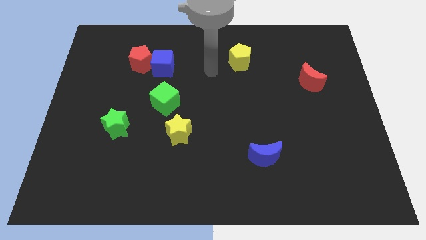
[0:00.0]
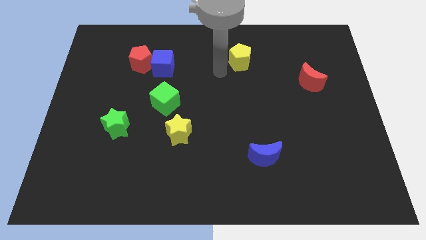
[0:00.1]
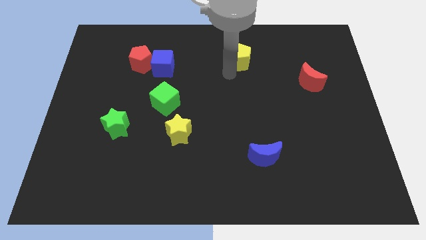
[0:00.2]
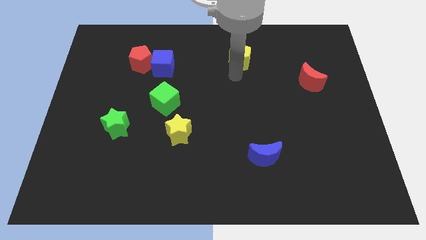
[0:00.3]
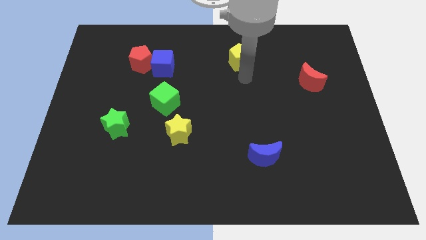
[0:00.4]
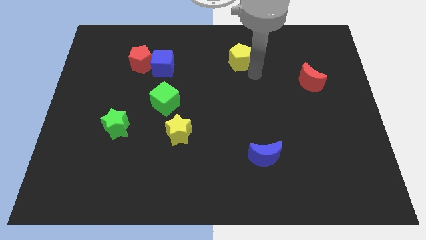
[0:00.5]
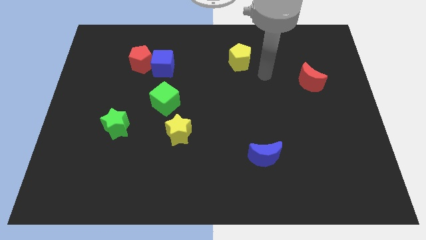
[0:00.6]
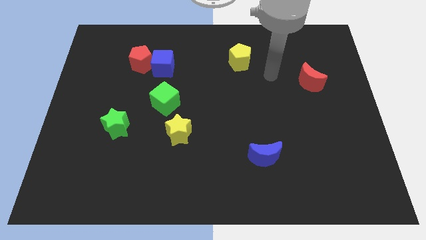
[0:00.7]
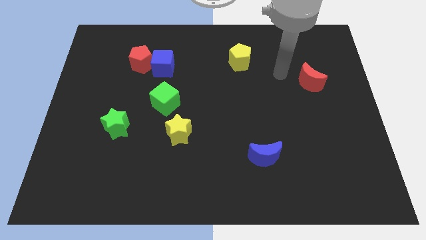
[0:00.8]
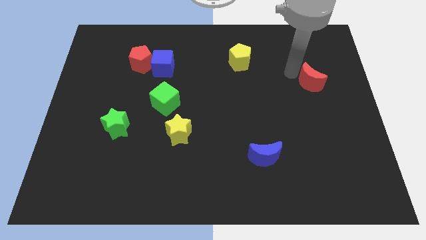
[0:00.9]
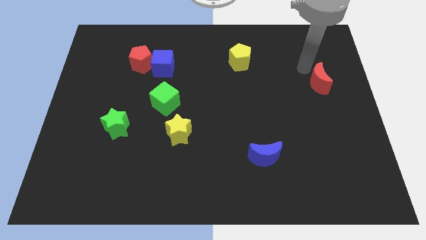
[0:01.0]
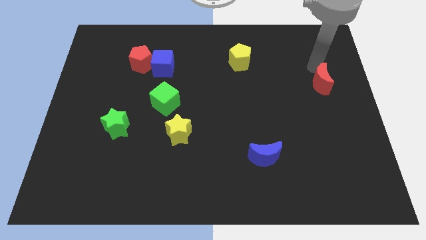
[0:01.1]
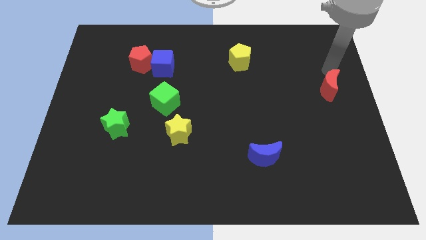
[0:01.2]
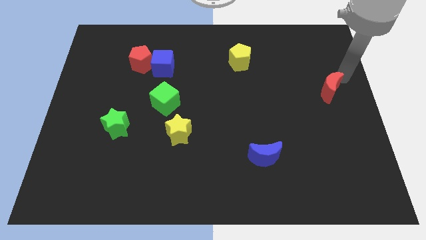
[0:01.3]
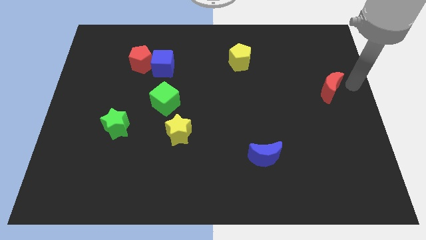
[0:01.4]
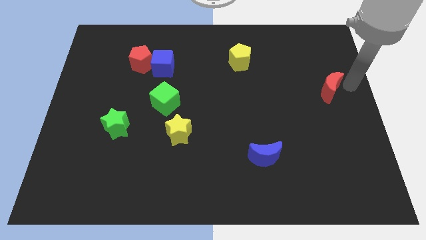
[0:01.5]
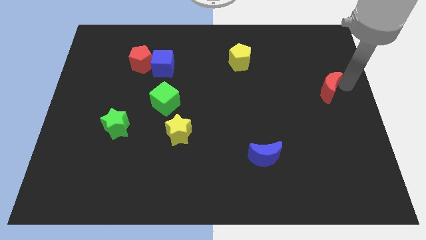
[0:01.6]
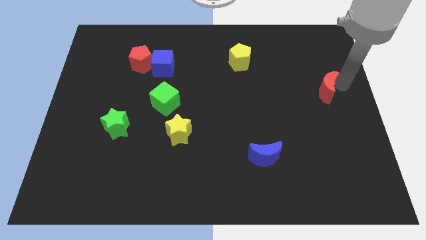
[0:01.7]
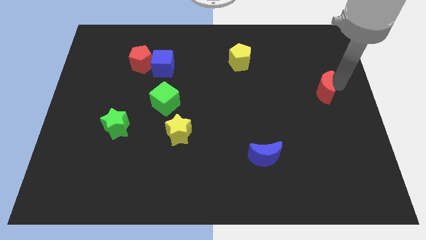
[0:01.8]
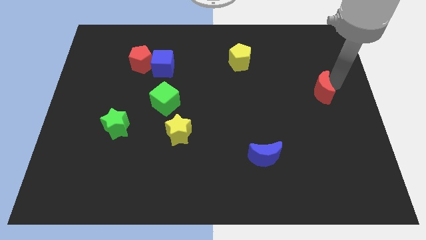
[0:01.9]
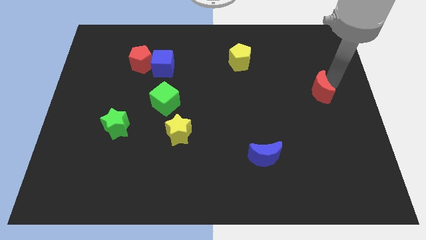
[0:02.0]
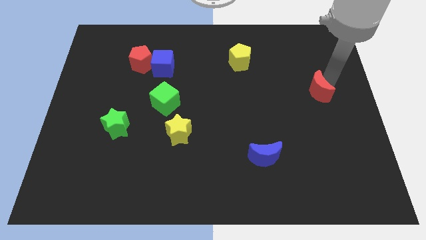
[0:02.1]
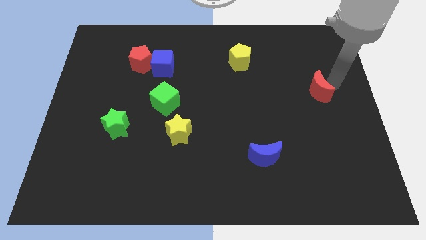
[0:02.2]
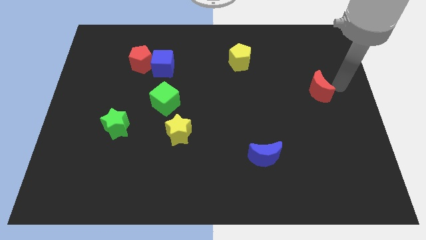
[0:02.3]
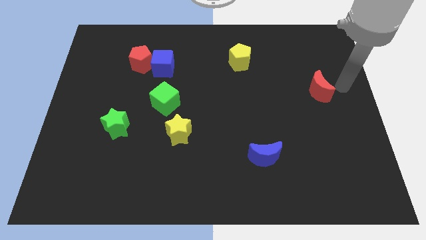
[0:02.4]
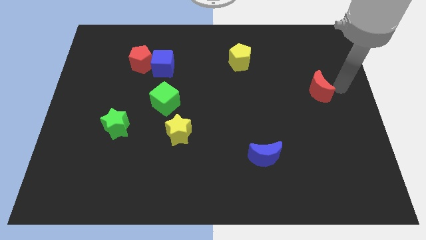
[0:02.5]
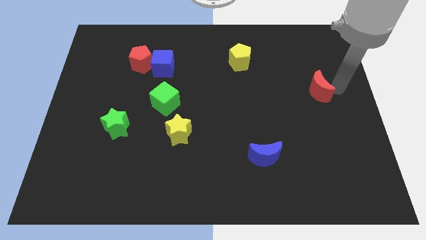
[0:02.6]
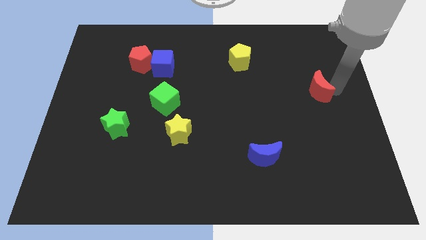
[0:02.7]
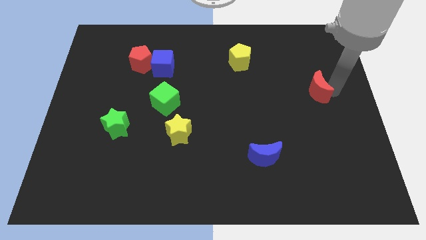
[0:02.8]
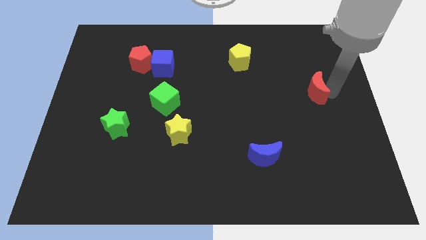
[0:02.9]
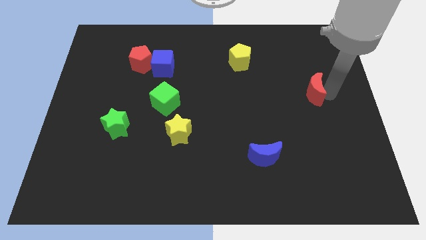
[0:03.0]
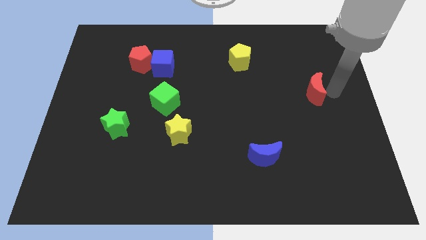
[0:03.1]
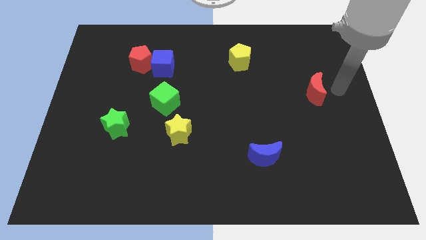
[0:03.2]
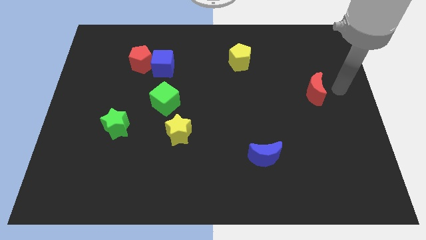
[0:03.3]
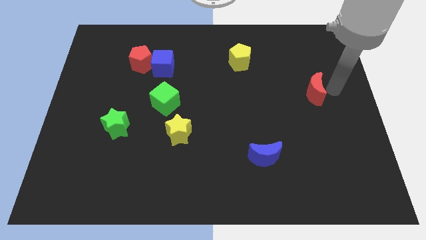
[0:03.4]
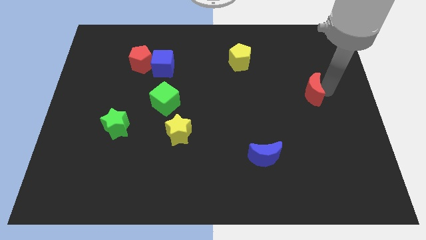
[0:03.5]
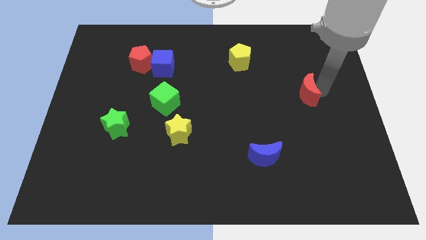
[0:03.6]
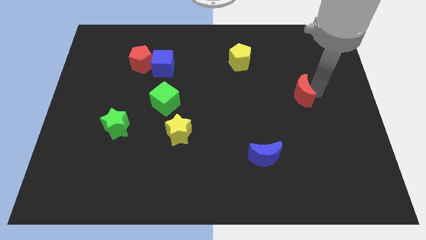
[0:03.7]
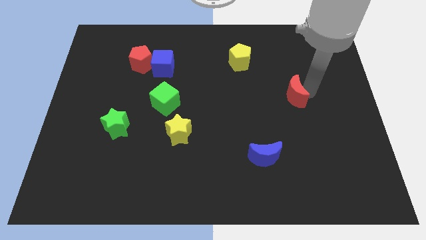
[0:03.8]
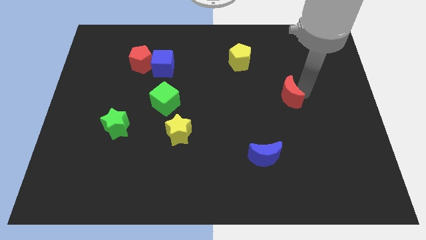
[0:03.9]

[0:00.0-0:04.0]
slightly push the red moon diagonally down and to the left

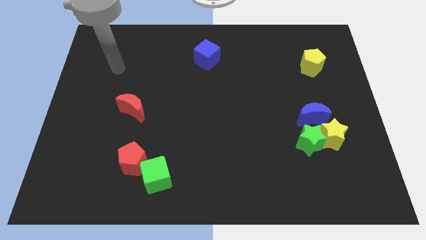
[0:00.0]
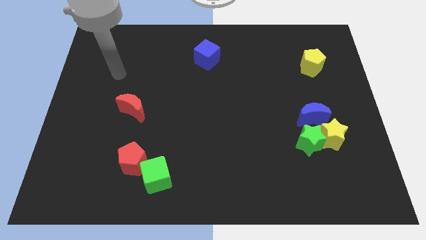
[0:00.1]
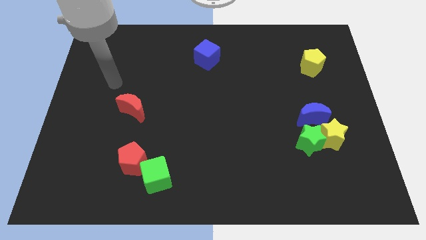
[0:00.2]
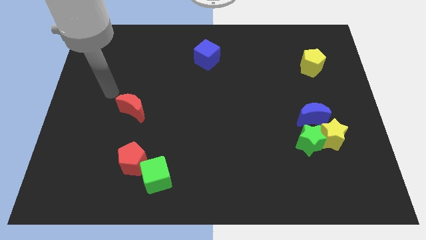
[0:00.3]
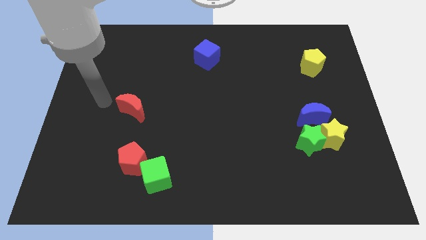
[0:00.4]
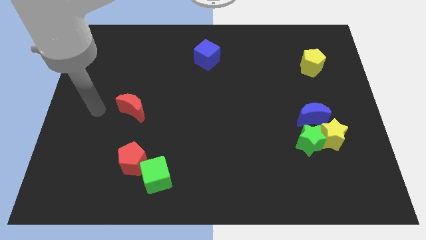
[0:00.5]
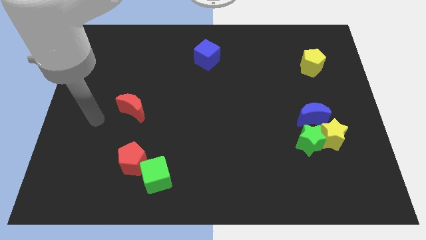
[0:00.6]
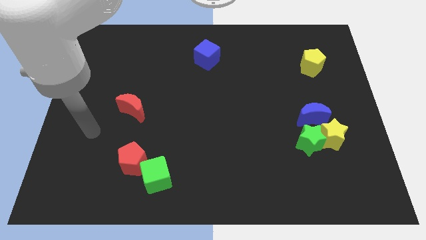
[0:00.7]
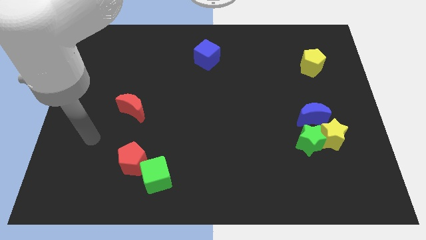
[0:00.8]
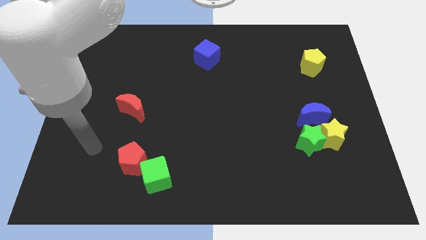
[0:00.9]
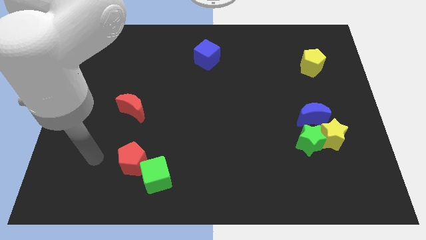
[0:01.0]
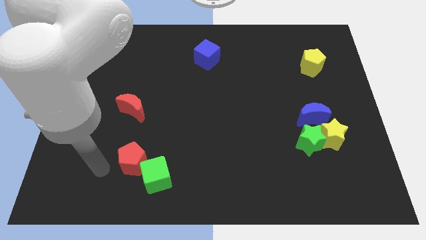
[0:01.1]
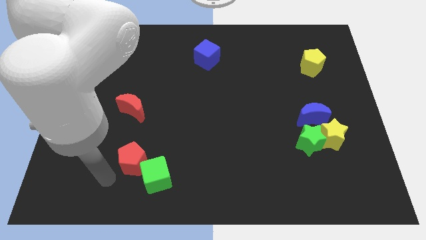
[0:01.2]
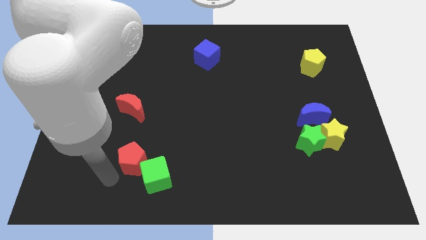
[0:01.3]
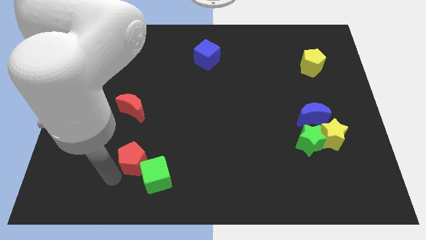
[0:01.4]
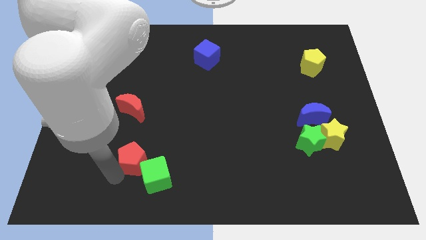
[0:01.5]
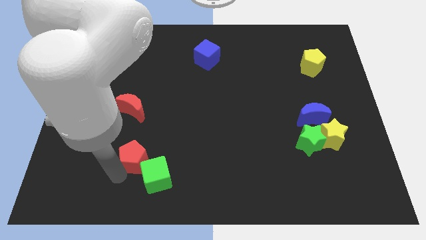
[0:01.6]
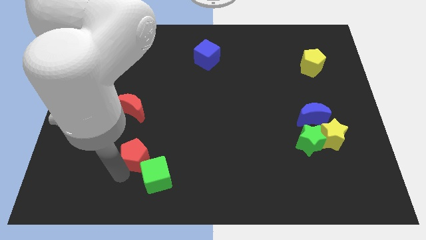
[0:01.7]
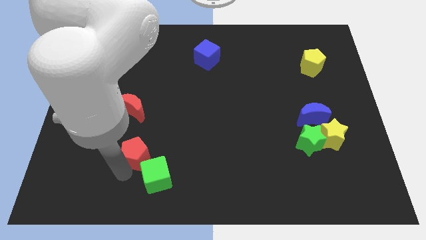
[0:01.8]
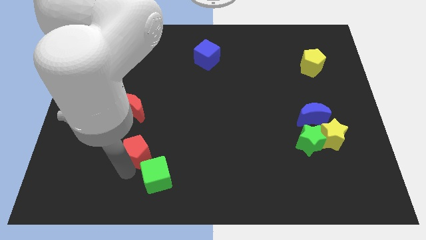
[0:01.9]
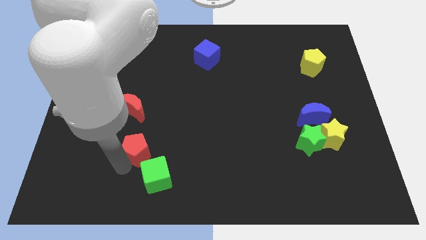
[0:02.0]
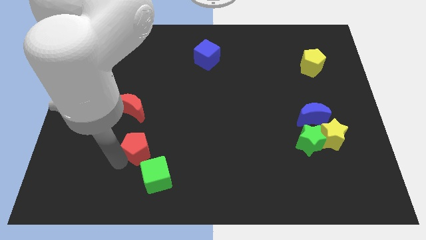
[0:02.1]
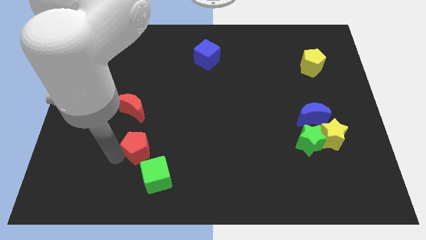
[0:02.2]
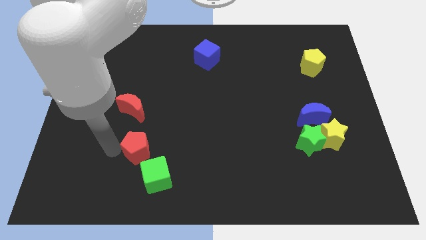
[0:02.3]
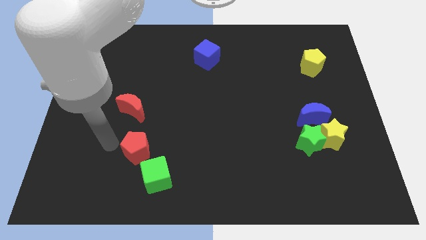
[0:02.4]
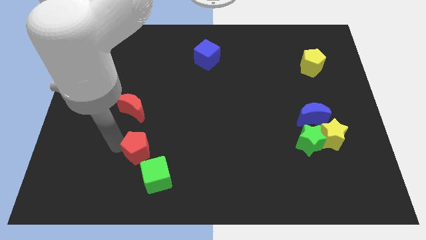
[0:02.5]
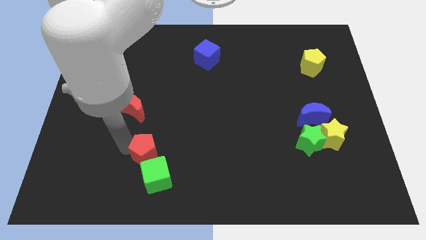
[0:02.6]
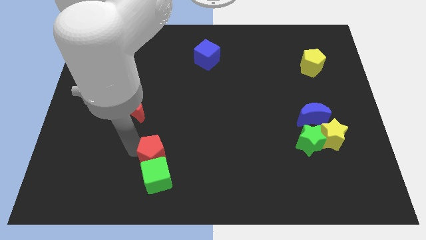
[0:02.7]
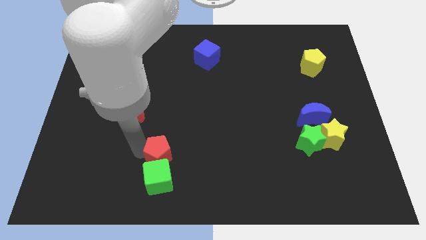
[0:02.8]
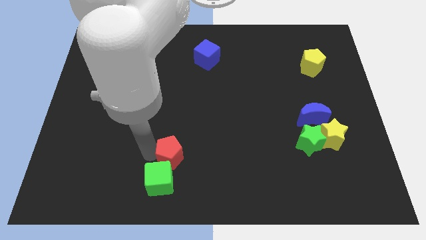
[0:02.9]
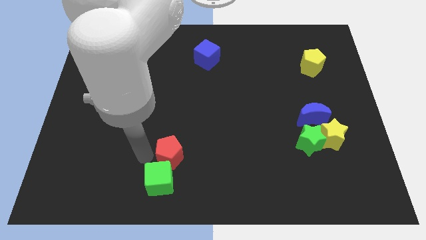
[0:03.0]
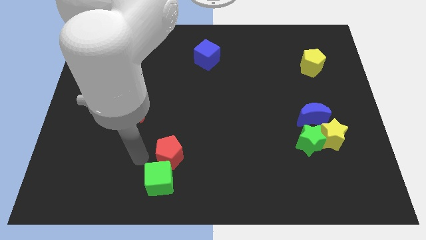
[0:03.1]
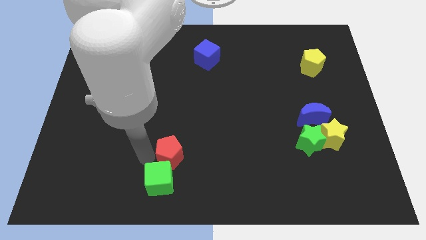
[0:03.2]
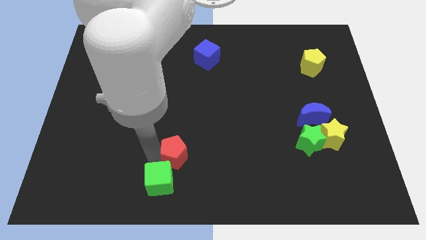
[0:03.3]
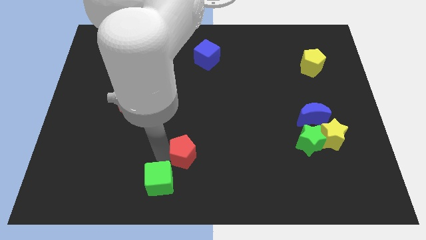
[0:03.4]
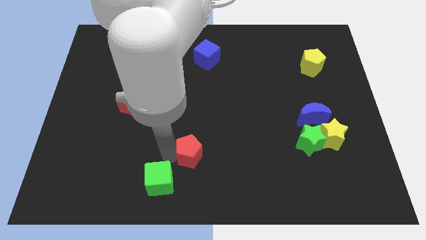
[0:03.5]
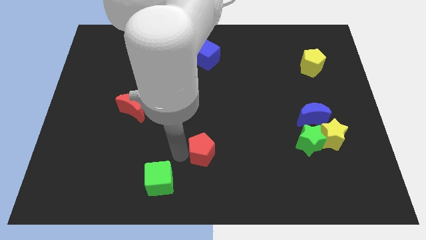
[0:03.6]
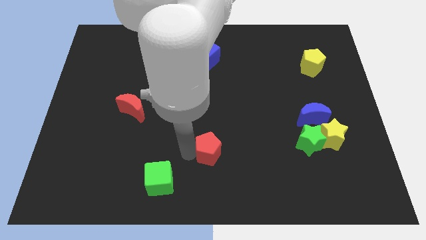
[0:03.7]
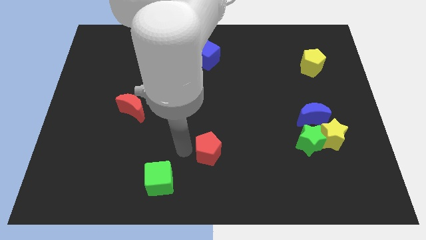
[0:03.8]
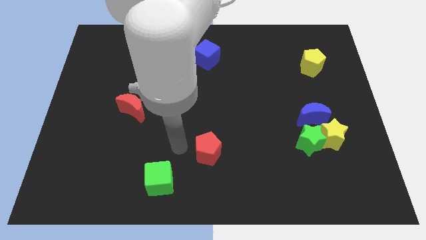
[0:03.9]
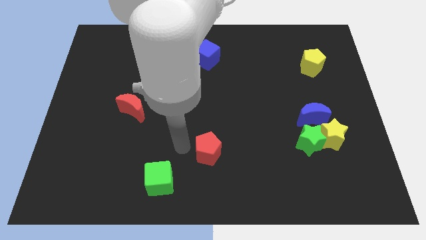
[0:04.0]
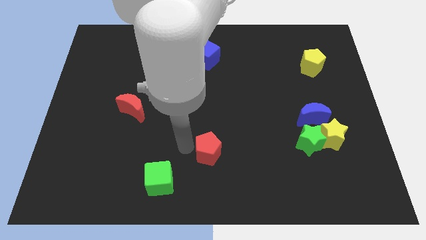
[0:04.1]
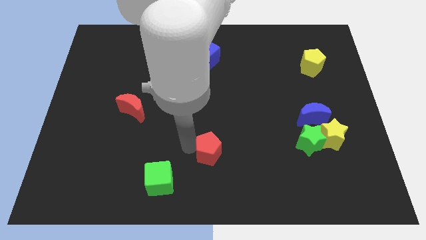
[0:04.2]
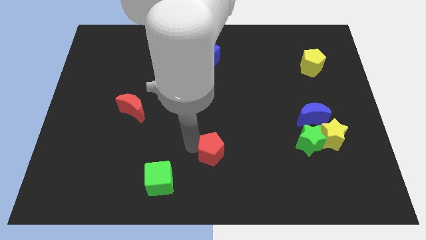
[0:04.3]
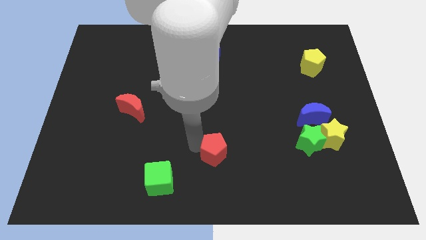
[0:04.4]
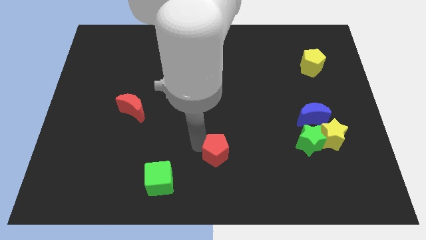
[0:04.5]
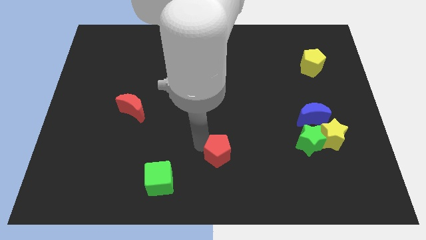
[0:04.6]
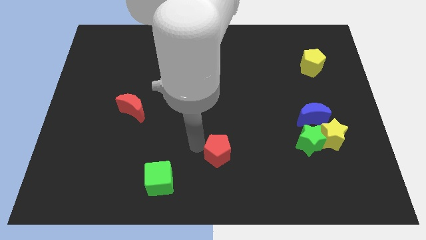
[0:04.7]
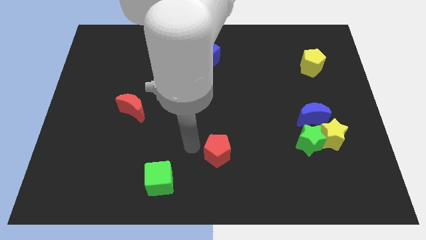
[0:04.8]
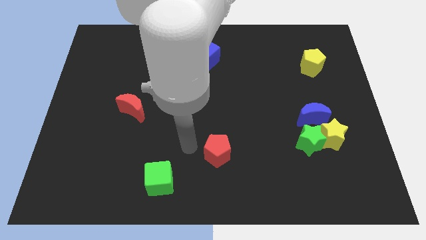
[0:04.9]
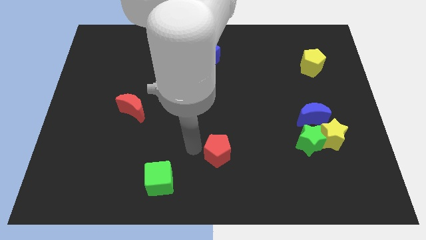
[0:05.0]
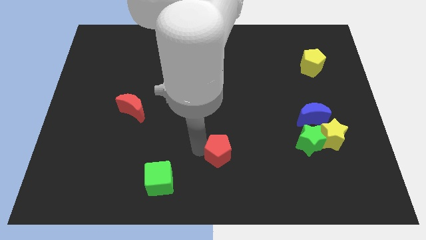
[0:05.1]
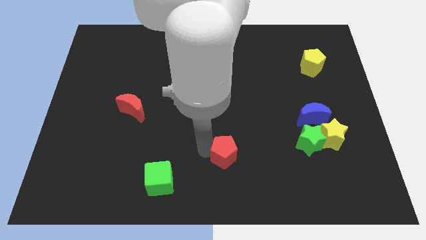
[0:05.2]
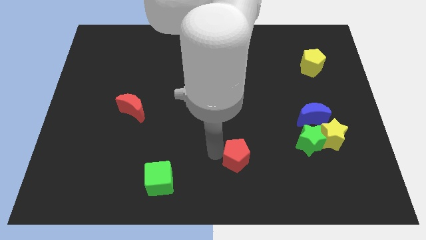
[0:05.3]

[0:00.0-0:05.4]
push the red pentagon to the right
